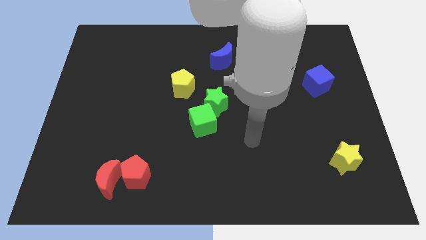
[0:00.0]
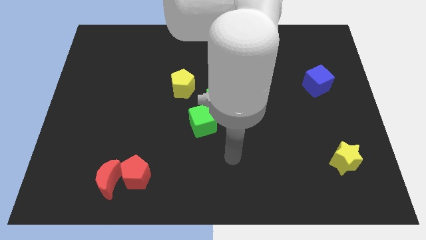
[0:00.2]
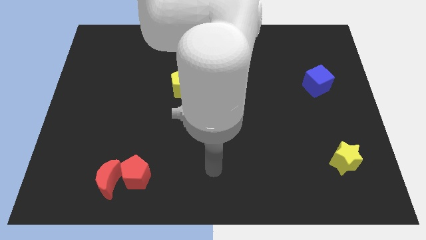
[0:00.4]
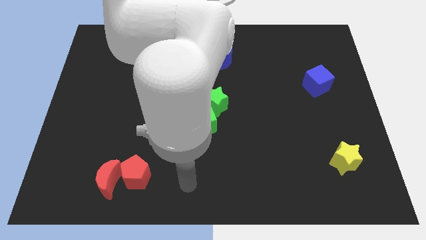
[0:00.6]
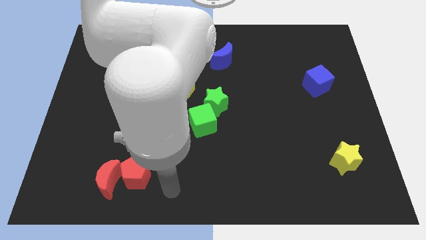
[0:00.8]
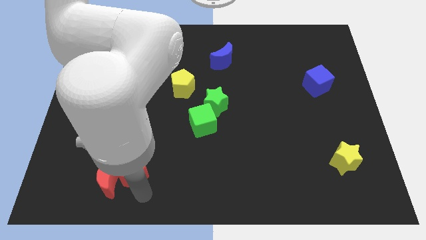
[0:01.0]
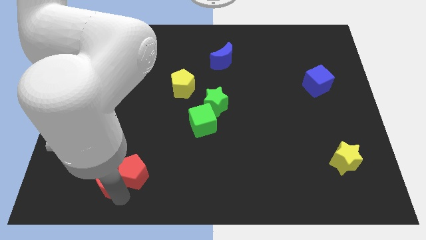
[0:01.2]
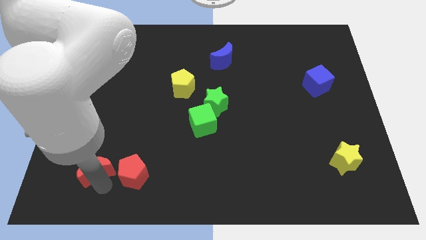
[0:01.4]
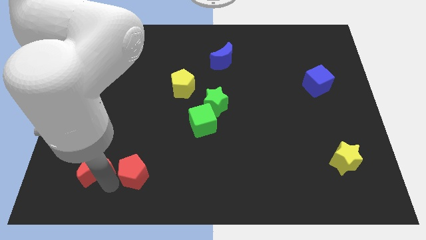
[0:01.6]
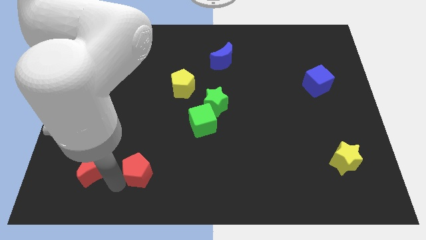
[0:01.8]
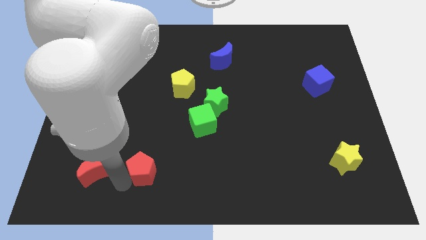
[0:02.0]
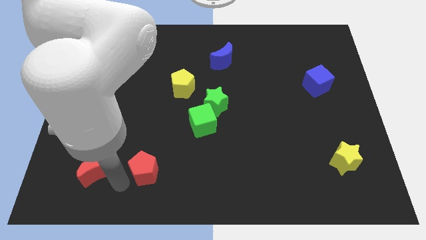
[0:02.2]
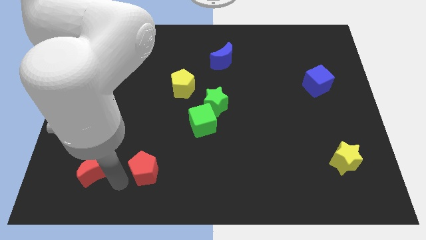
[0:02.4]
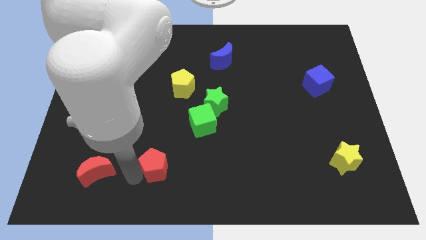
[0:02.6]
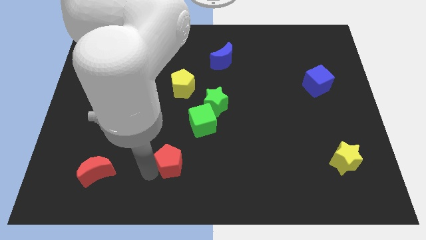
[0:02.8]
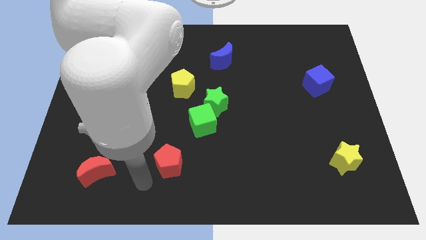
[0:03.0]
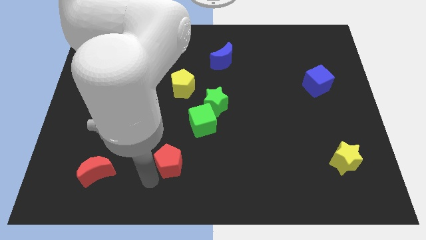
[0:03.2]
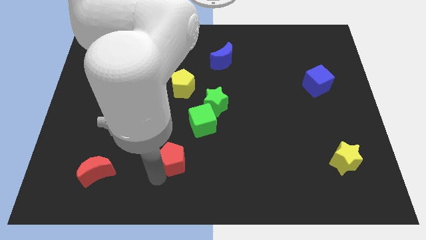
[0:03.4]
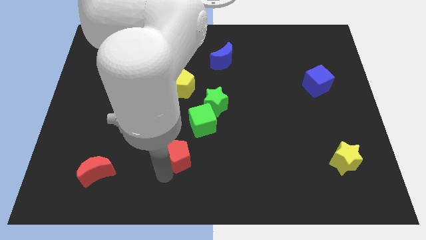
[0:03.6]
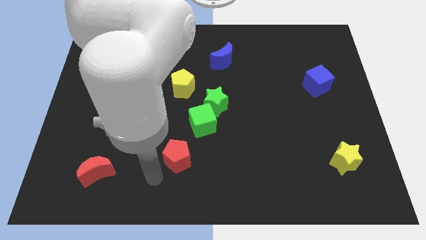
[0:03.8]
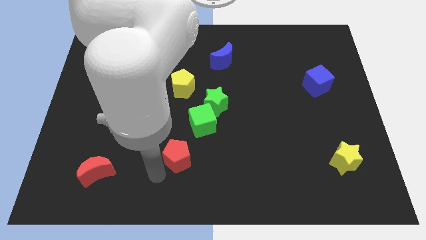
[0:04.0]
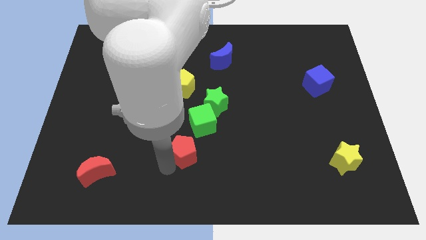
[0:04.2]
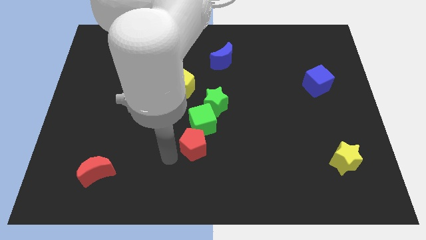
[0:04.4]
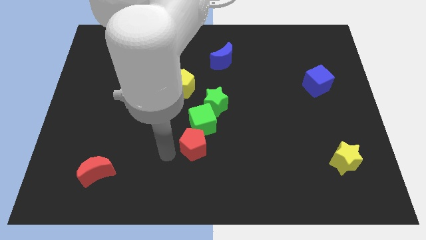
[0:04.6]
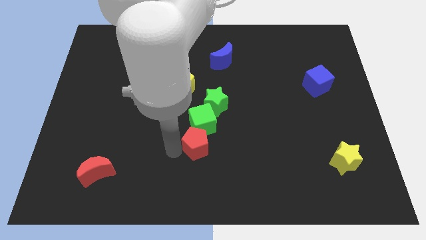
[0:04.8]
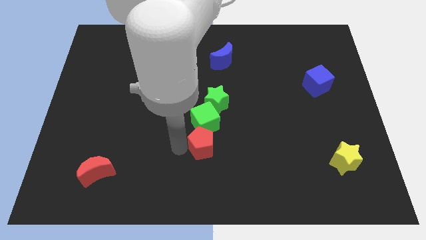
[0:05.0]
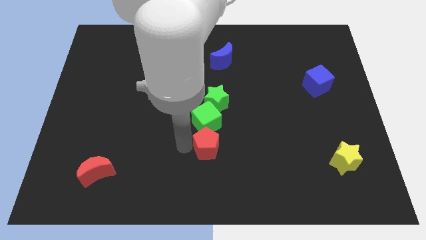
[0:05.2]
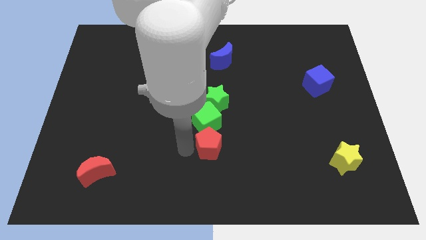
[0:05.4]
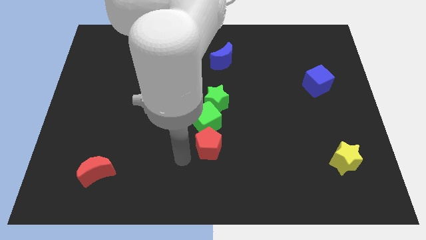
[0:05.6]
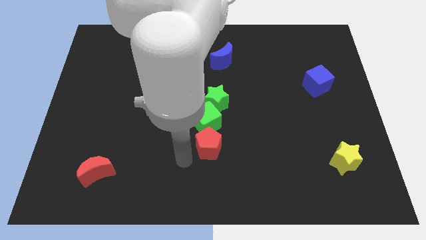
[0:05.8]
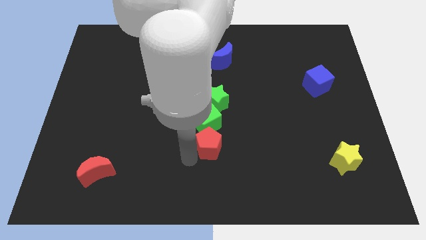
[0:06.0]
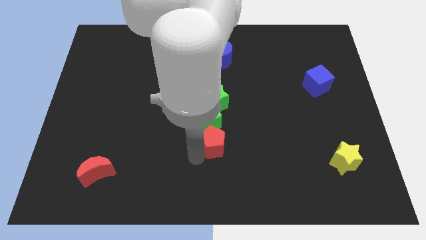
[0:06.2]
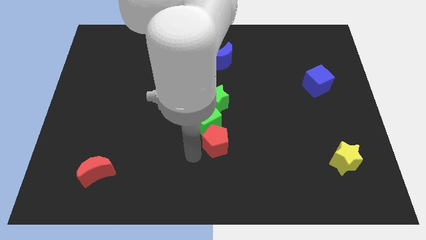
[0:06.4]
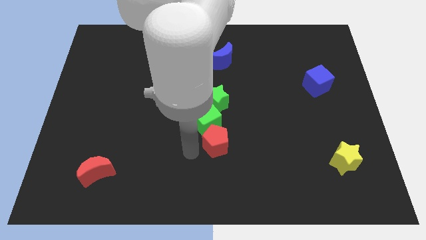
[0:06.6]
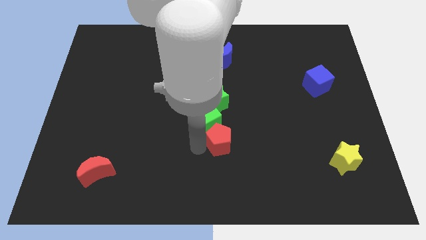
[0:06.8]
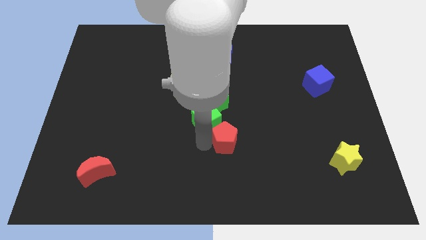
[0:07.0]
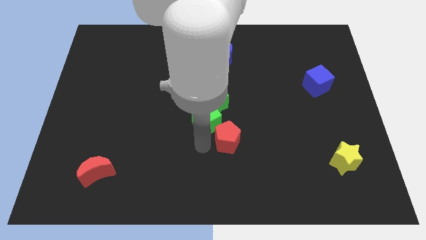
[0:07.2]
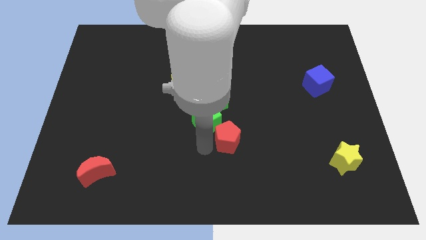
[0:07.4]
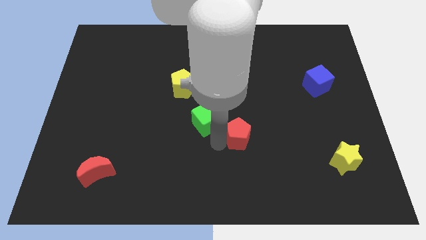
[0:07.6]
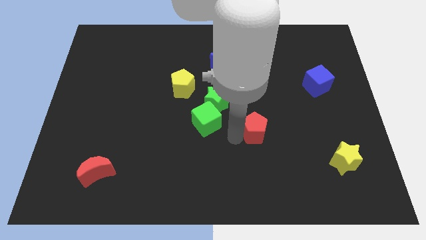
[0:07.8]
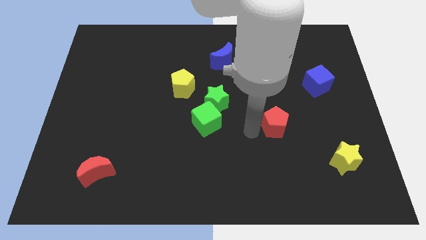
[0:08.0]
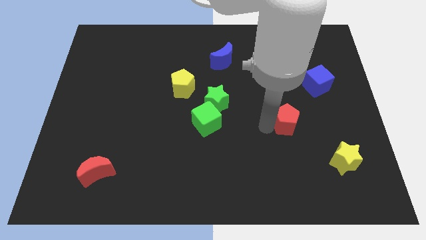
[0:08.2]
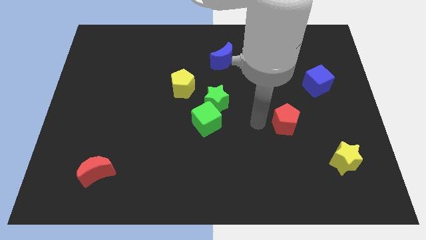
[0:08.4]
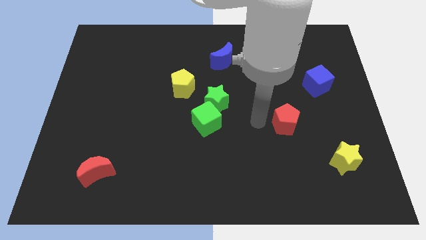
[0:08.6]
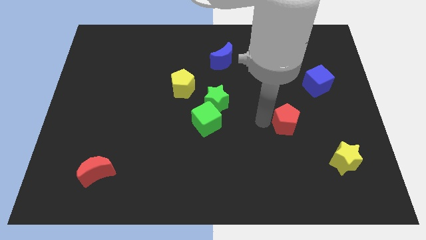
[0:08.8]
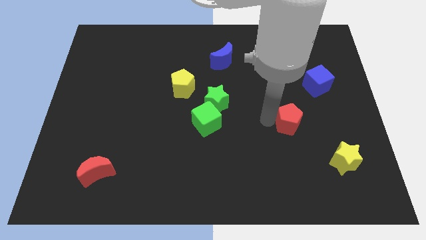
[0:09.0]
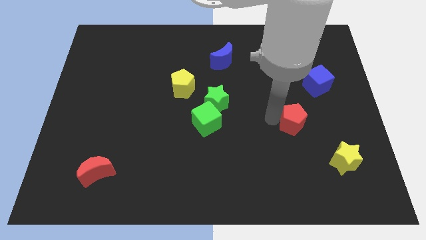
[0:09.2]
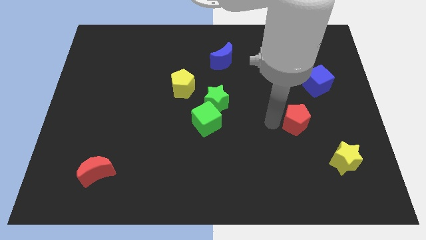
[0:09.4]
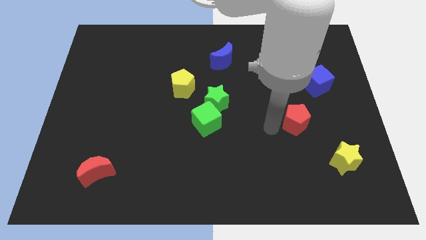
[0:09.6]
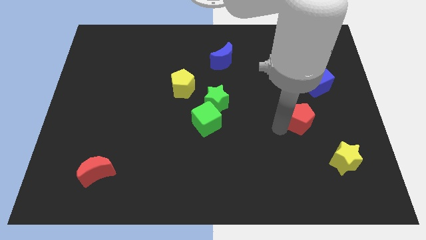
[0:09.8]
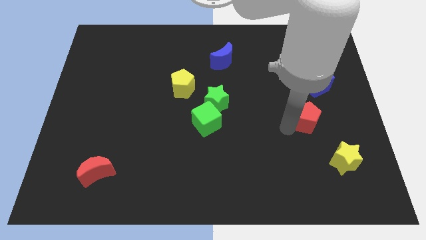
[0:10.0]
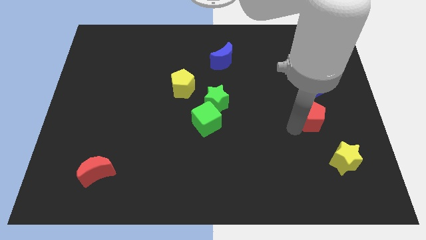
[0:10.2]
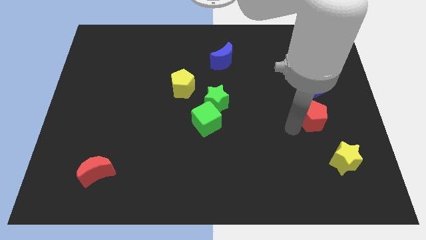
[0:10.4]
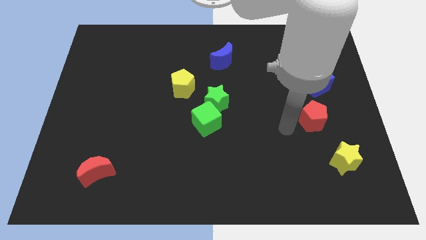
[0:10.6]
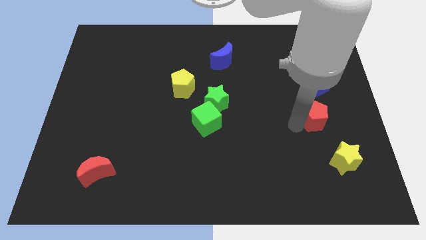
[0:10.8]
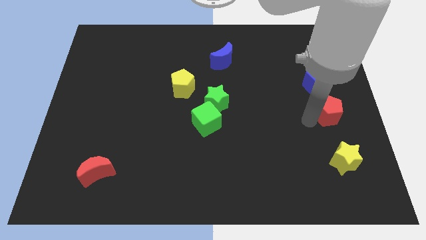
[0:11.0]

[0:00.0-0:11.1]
push the red pentagon to the center right

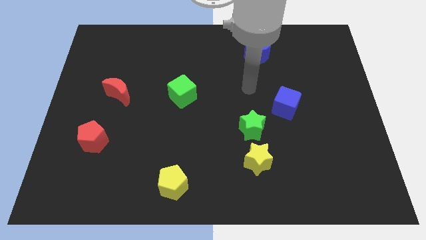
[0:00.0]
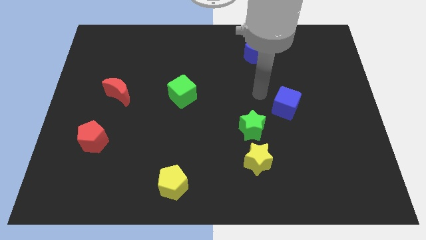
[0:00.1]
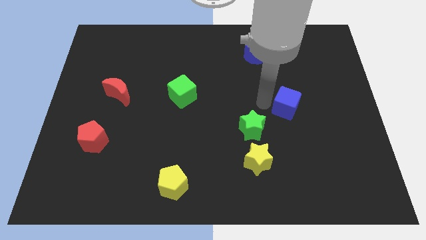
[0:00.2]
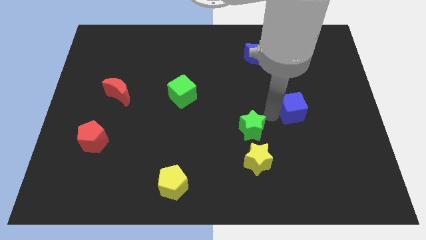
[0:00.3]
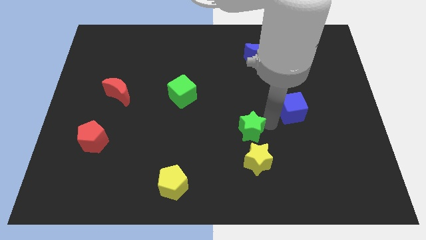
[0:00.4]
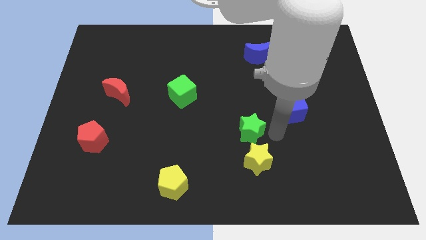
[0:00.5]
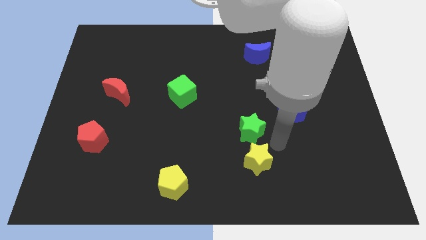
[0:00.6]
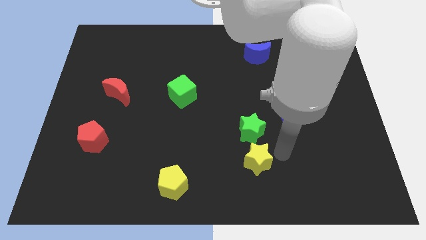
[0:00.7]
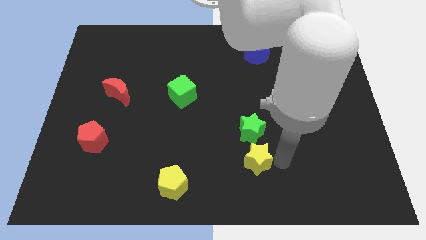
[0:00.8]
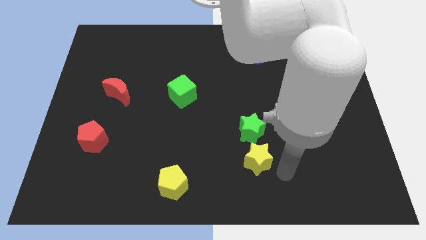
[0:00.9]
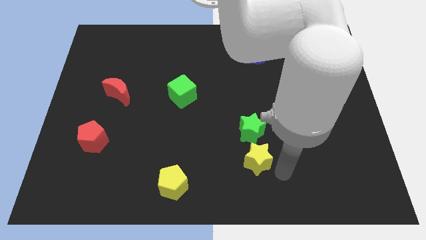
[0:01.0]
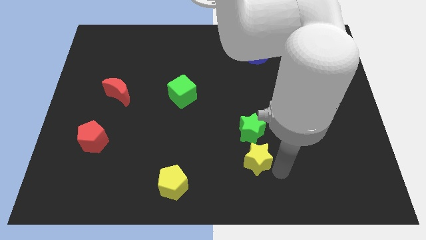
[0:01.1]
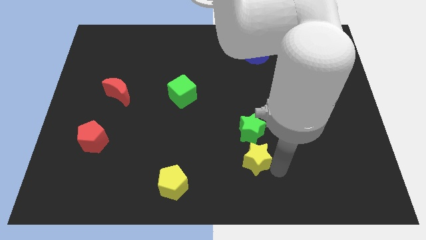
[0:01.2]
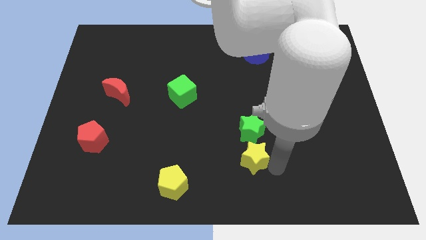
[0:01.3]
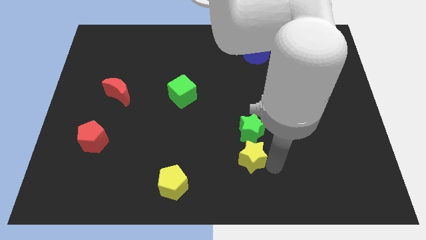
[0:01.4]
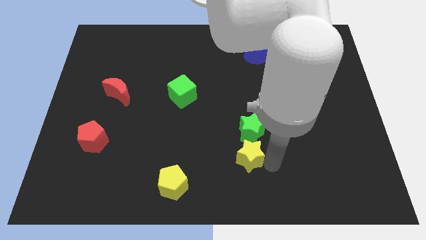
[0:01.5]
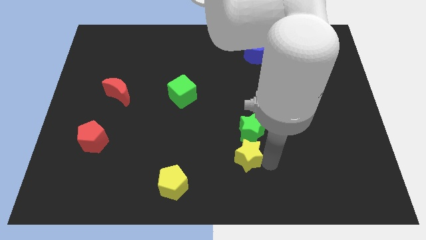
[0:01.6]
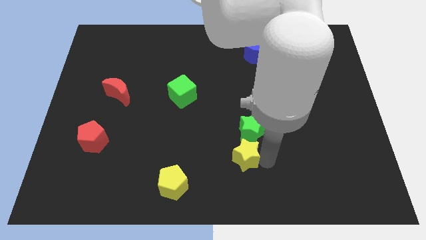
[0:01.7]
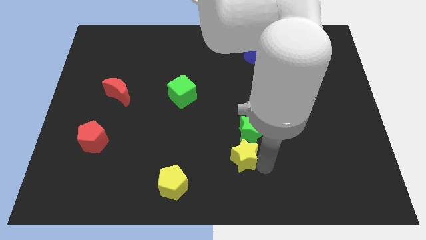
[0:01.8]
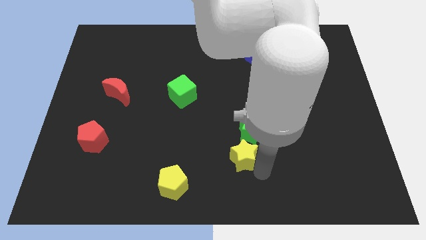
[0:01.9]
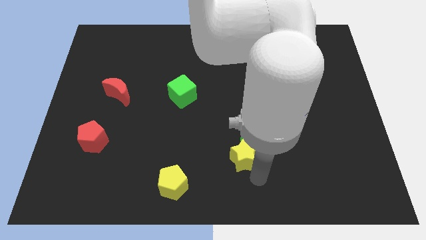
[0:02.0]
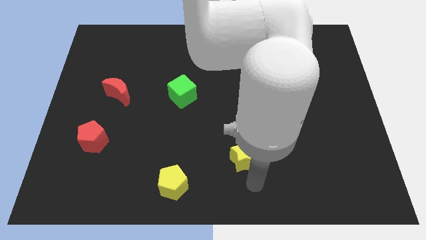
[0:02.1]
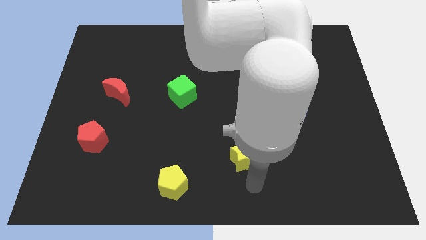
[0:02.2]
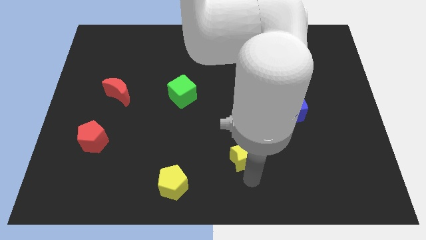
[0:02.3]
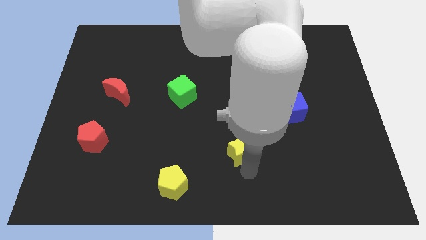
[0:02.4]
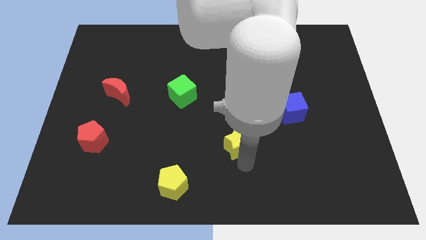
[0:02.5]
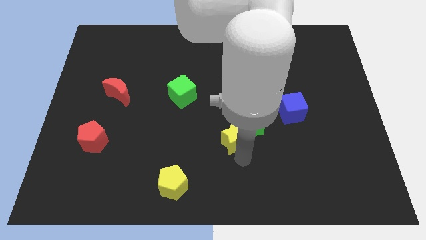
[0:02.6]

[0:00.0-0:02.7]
move the yellow star to the middle of the board
